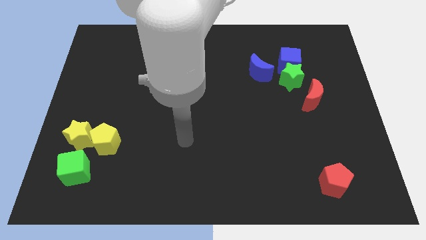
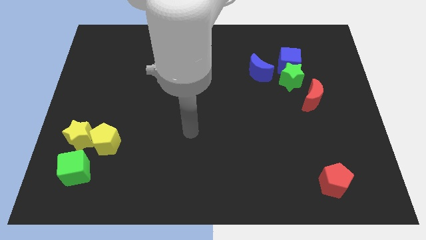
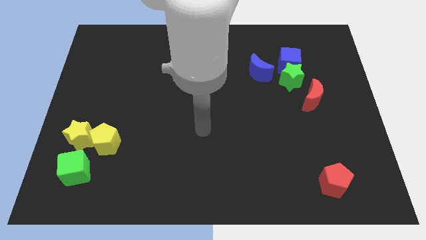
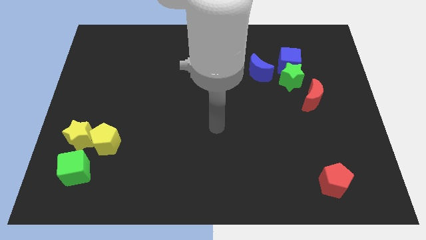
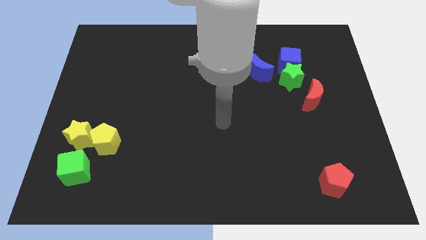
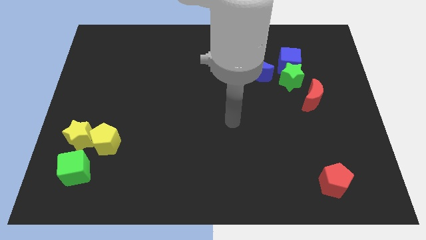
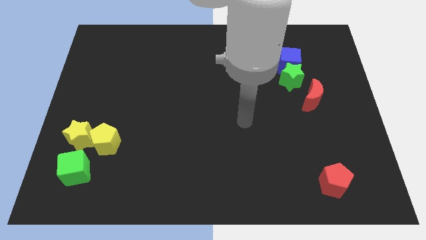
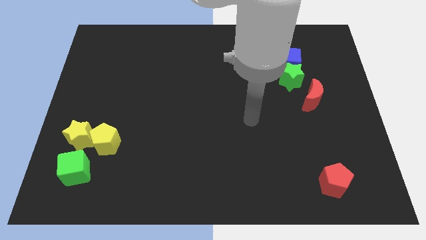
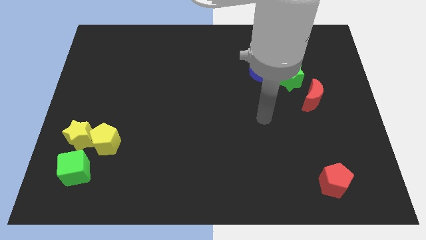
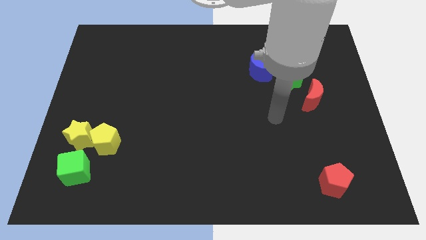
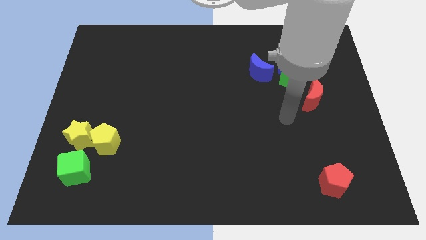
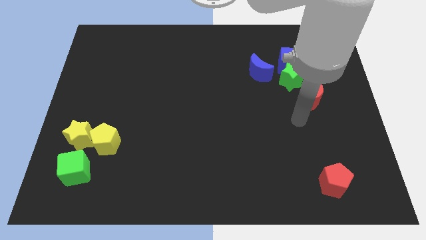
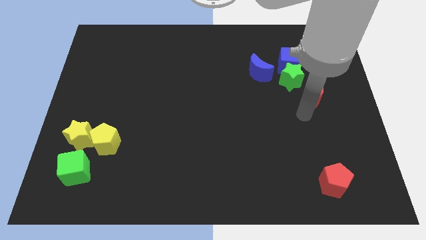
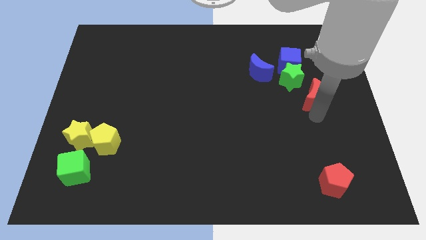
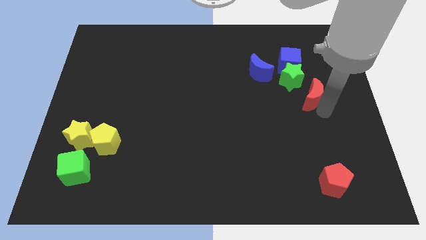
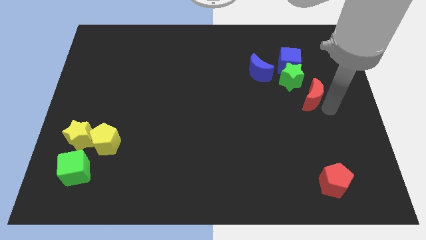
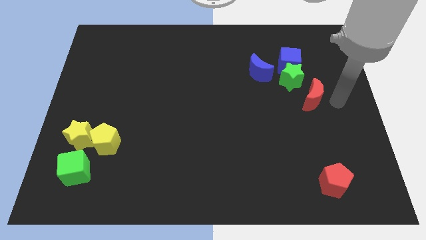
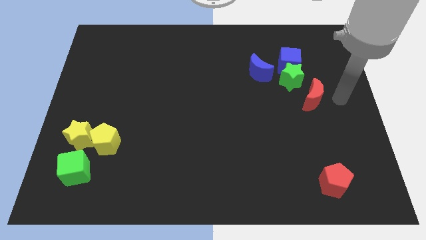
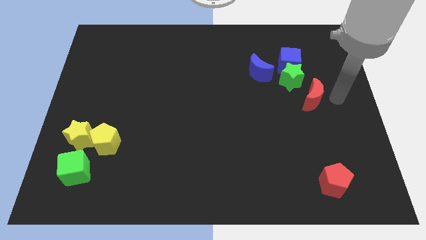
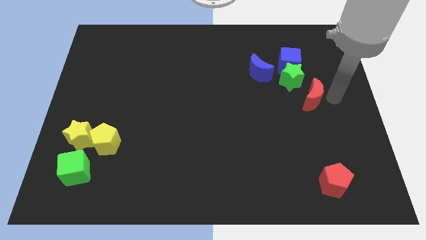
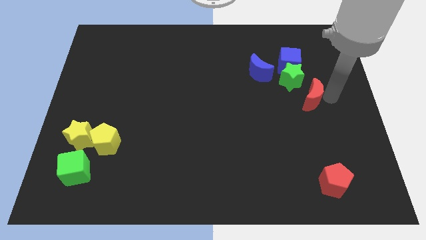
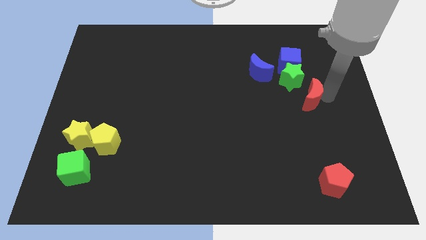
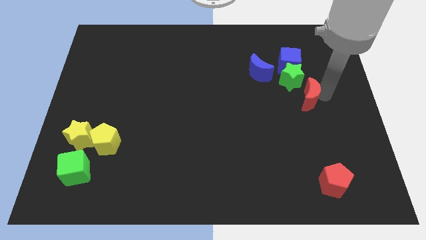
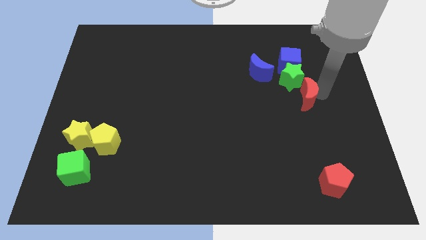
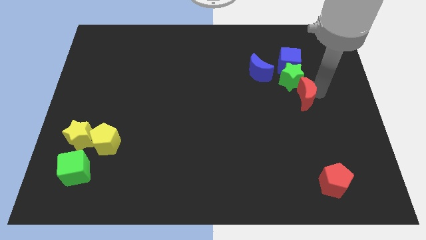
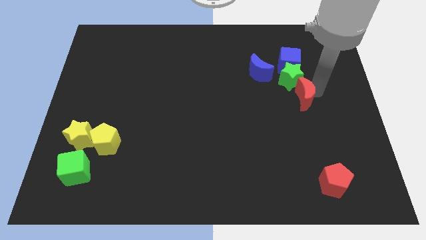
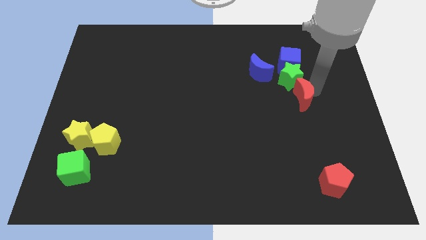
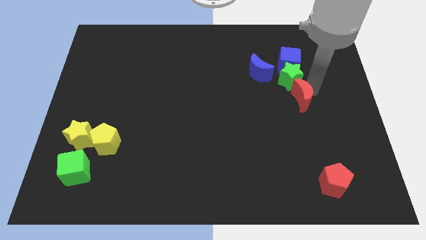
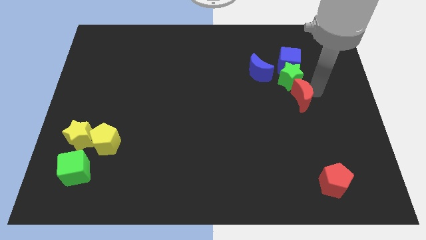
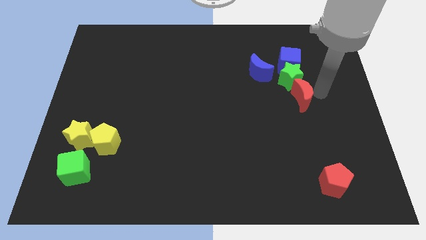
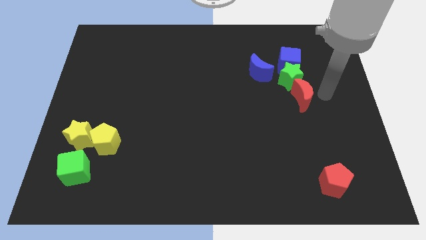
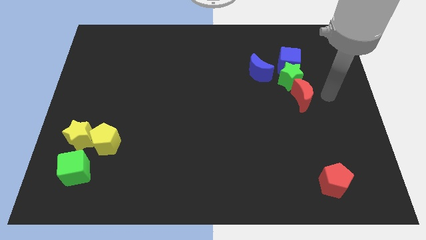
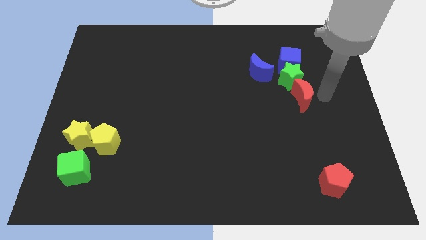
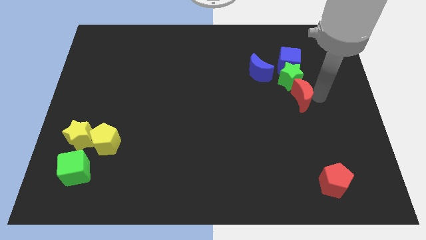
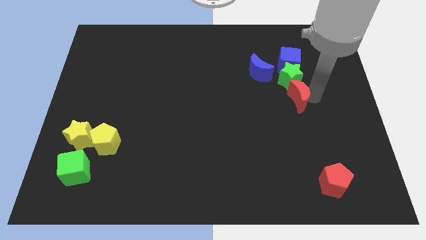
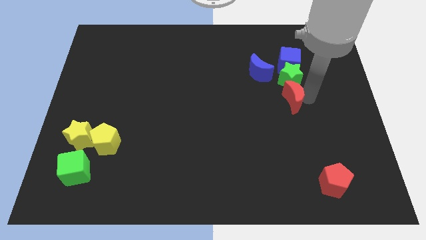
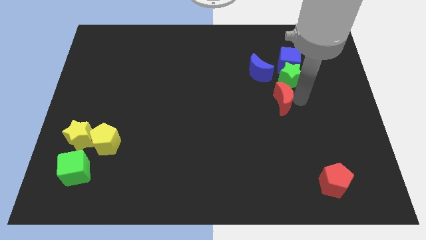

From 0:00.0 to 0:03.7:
push the red moon a little left

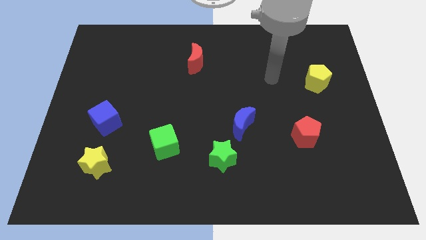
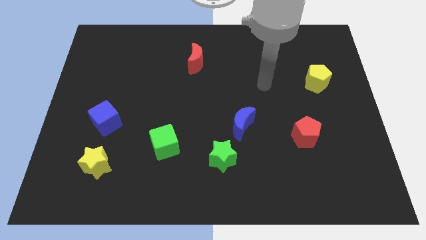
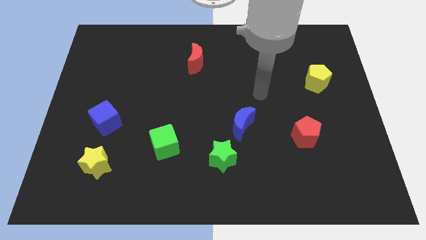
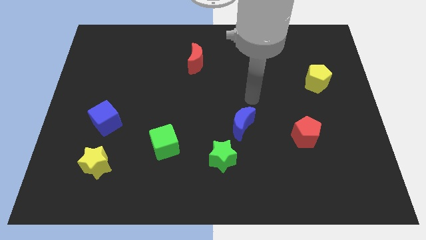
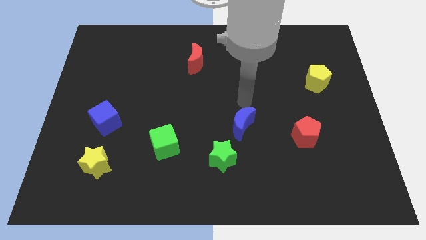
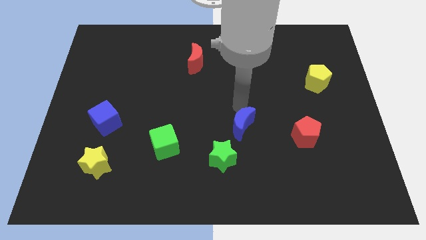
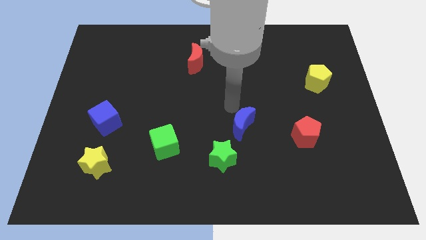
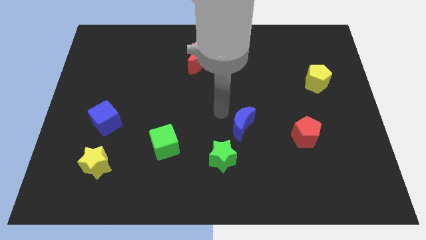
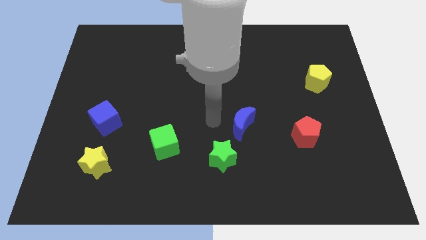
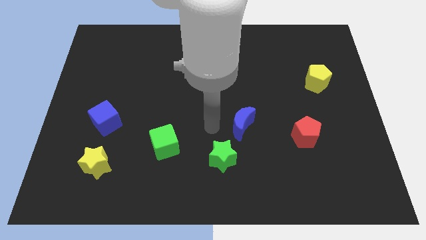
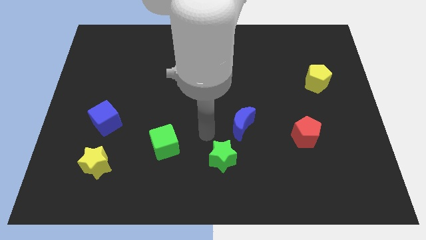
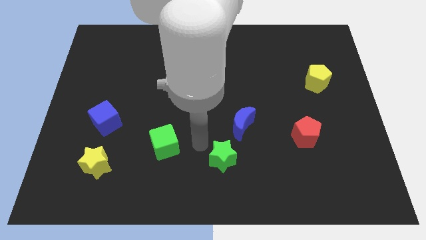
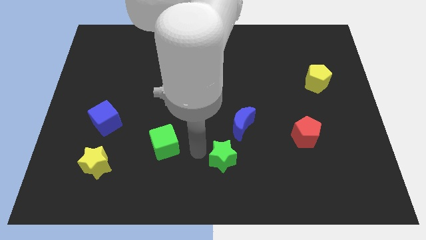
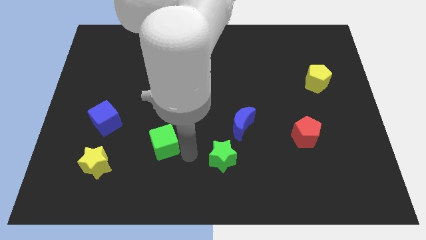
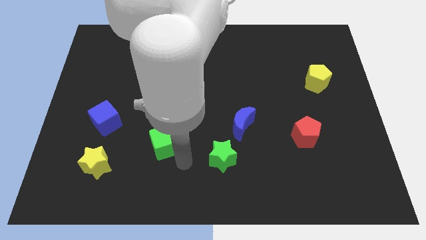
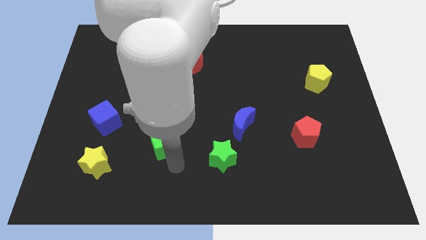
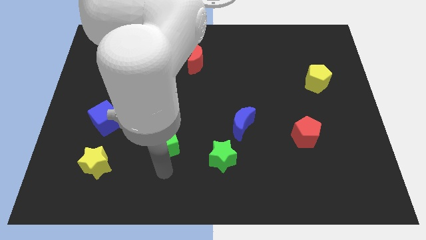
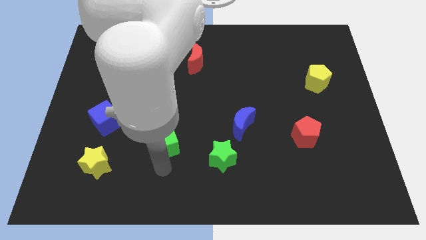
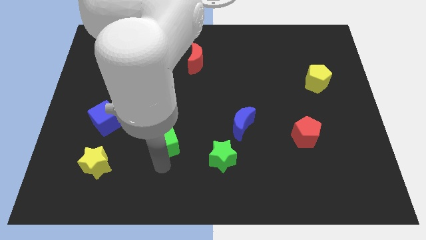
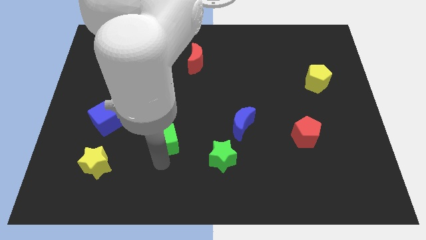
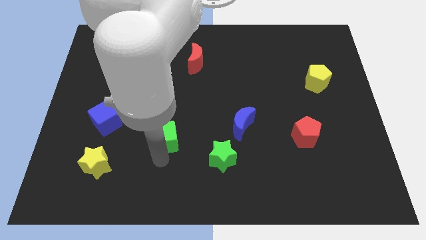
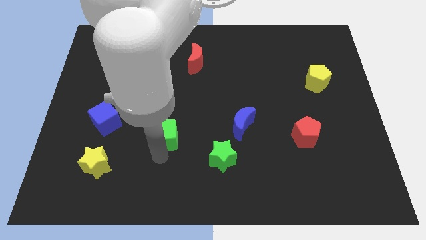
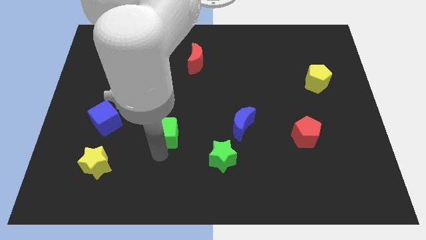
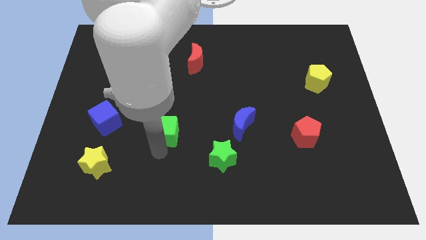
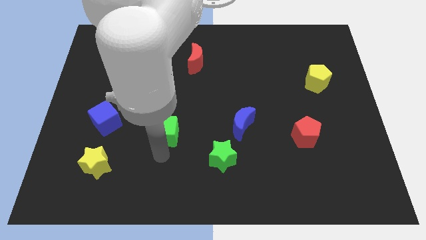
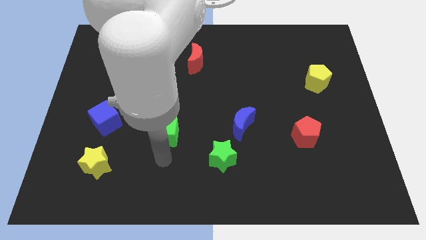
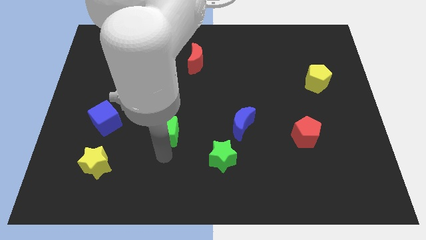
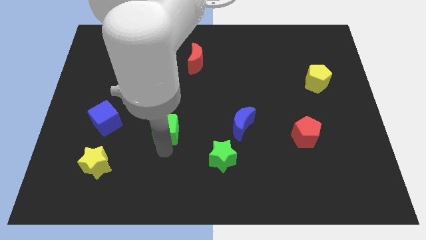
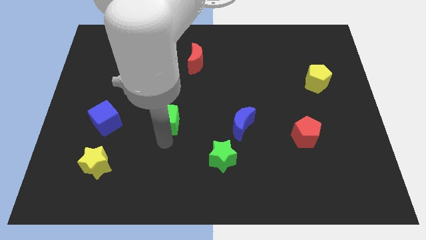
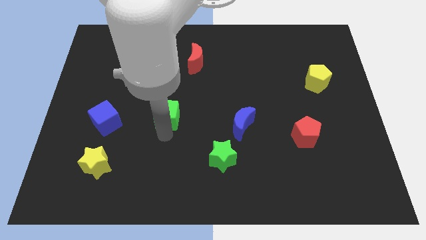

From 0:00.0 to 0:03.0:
slightly push the green cube up

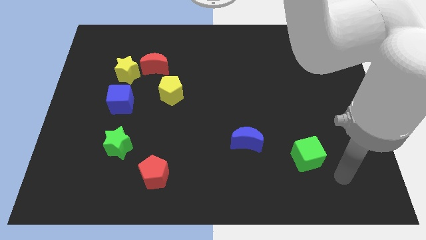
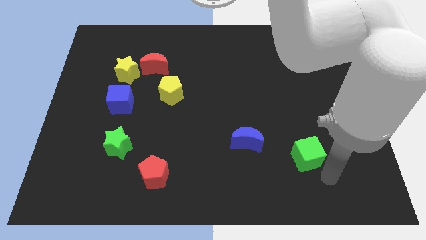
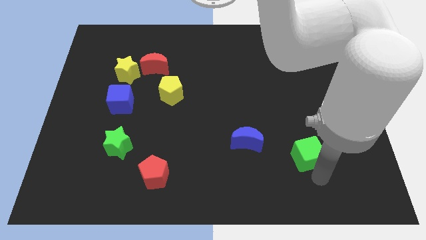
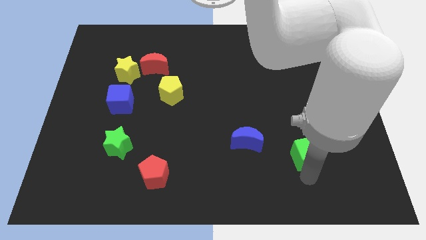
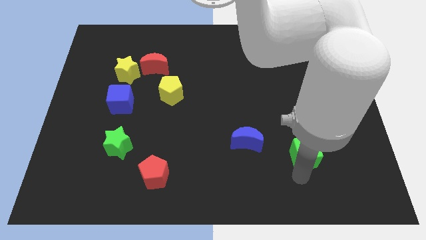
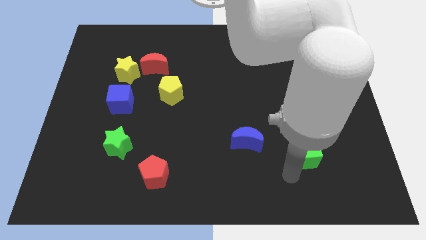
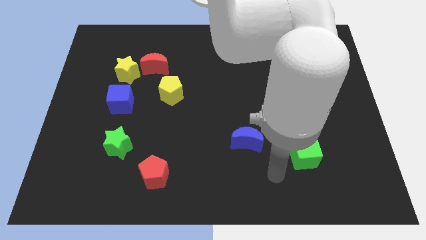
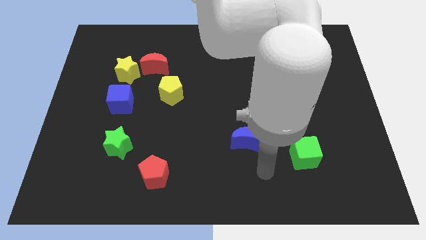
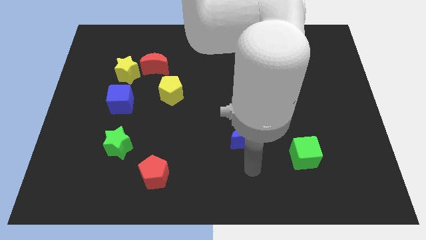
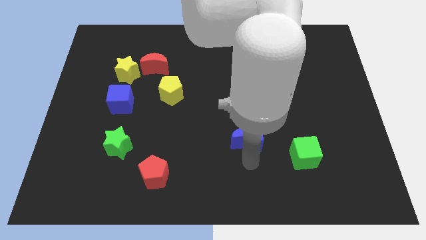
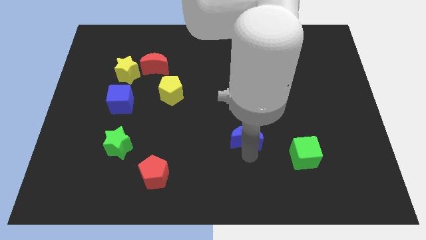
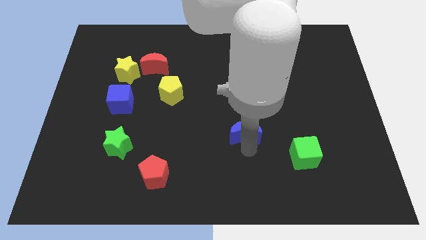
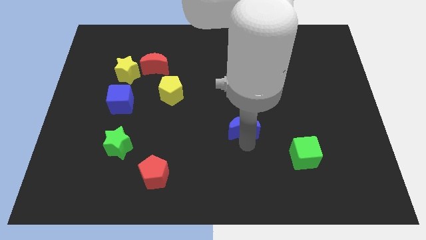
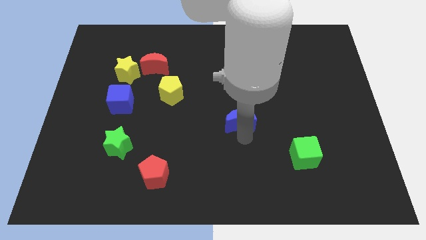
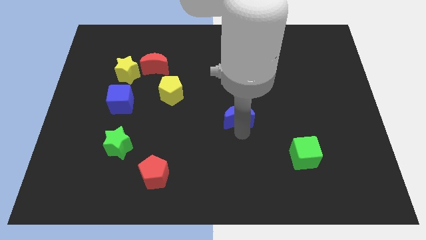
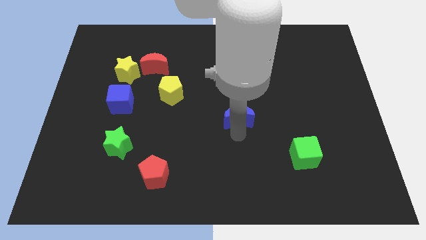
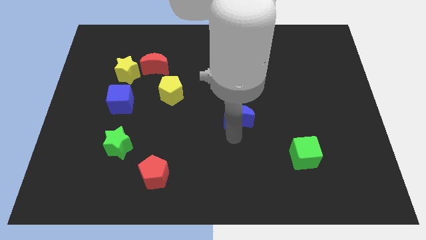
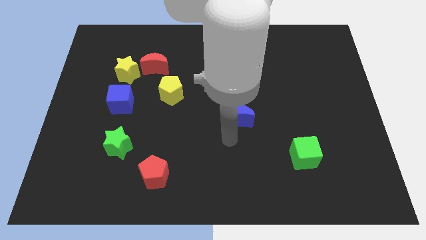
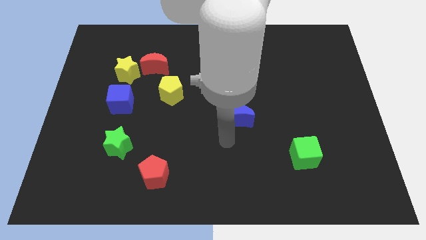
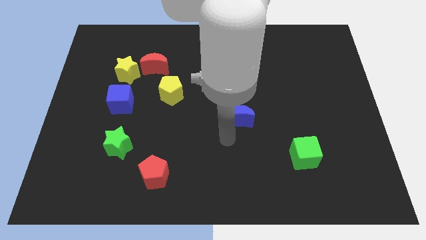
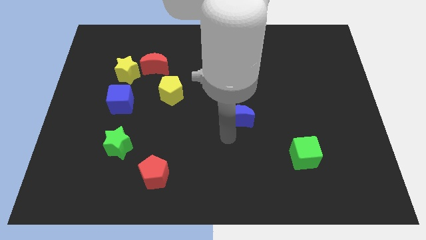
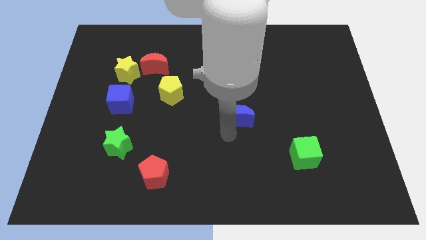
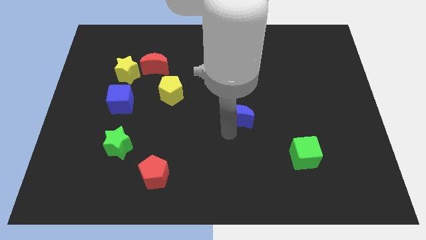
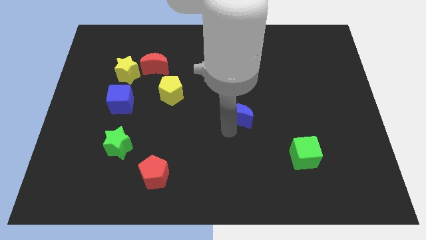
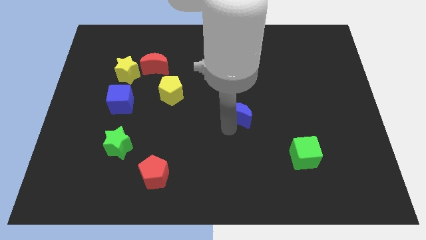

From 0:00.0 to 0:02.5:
move the blue moon up slightly
